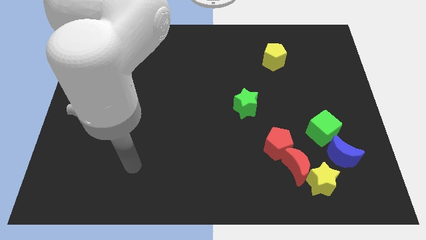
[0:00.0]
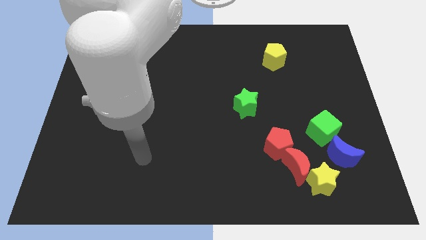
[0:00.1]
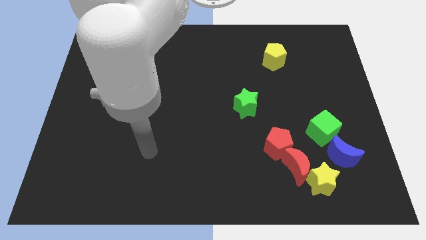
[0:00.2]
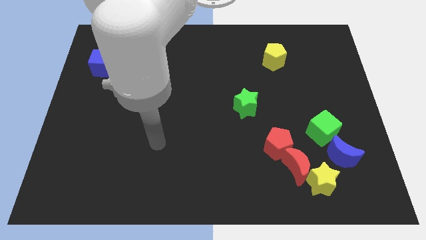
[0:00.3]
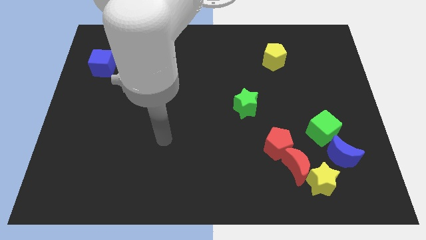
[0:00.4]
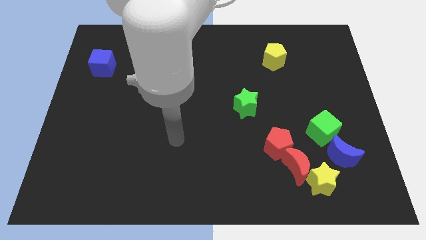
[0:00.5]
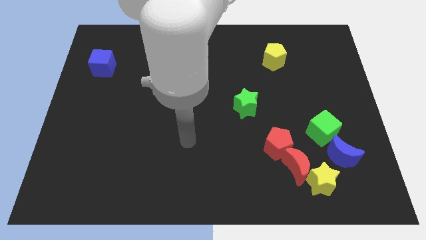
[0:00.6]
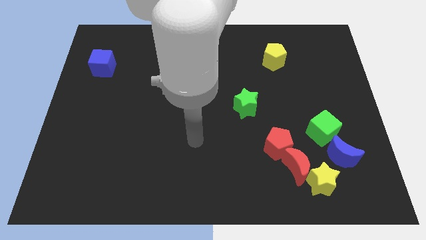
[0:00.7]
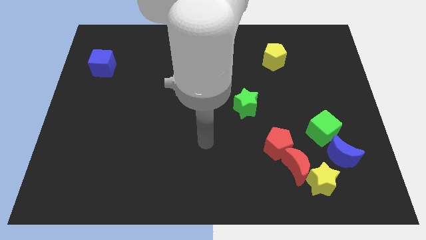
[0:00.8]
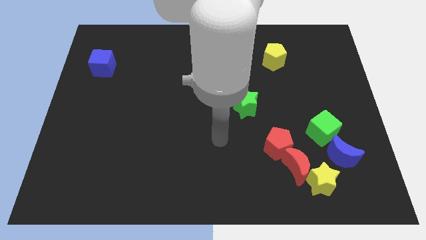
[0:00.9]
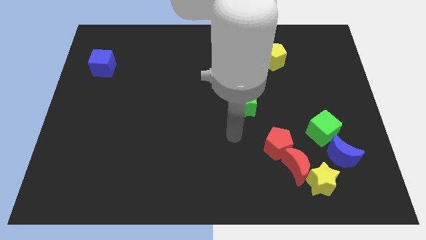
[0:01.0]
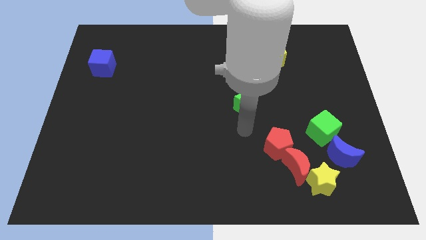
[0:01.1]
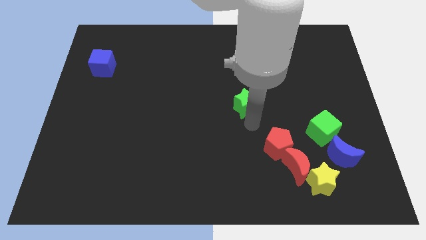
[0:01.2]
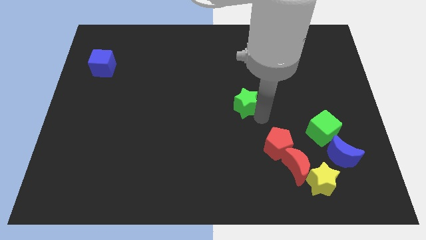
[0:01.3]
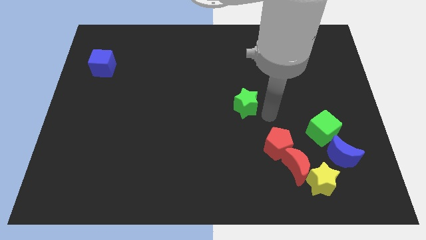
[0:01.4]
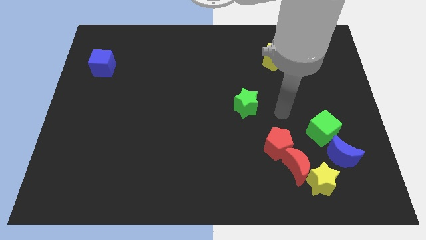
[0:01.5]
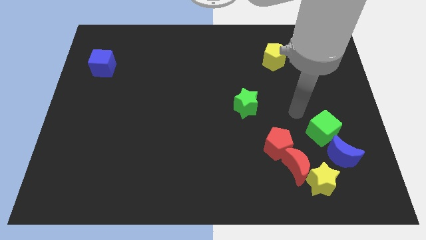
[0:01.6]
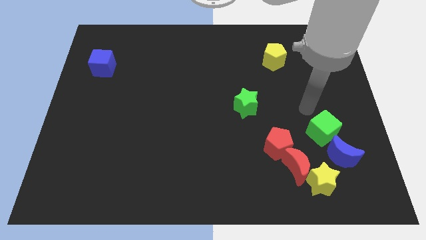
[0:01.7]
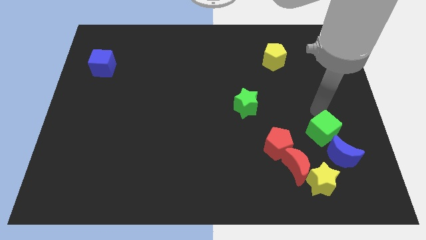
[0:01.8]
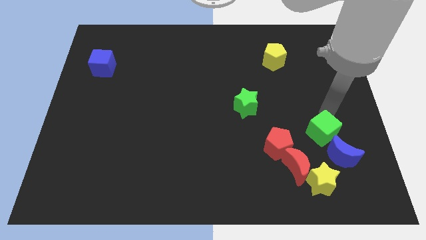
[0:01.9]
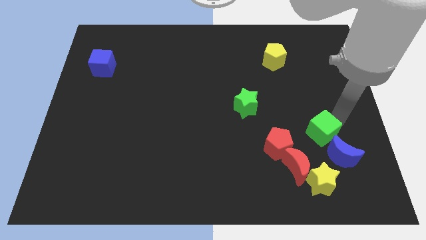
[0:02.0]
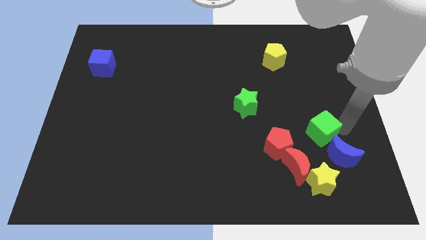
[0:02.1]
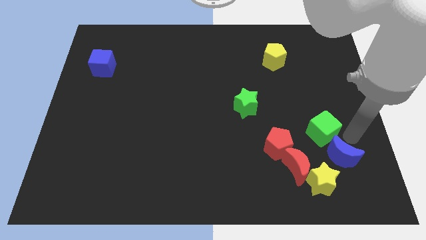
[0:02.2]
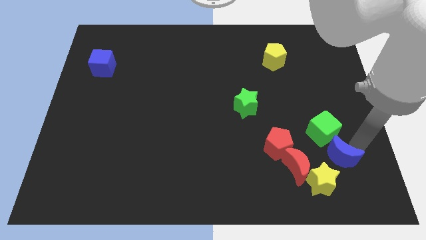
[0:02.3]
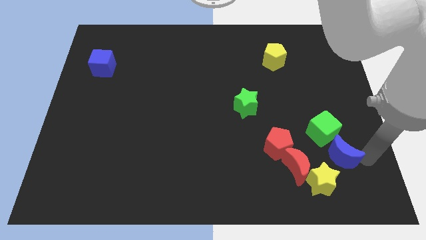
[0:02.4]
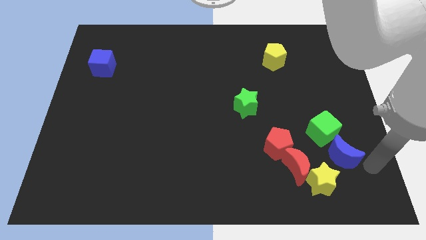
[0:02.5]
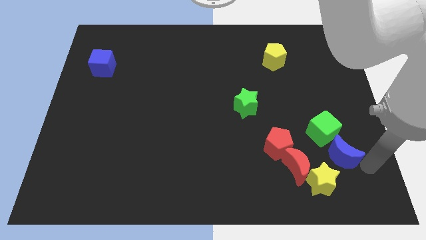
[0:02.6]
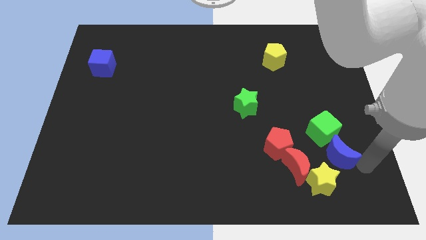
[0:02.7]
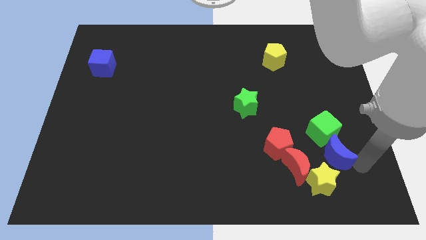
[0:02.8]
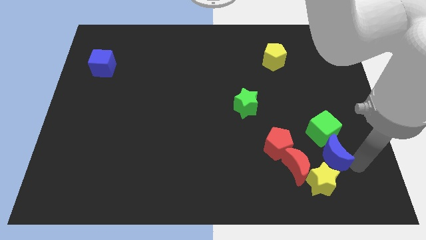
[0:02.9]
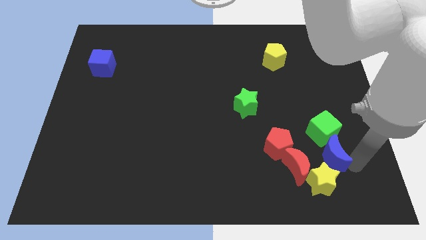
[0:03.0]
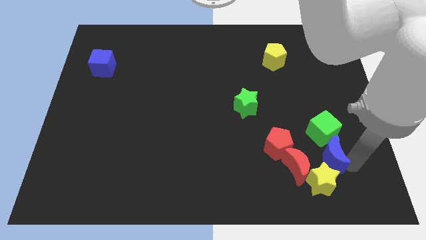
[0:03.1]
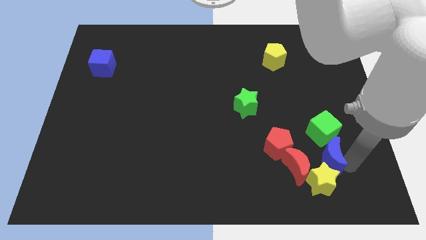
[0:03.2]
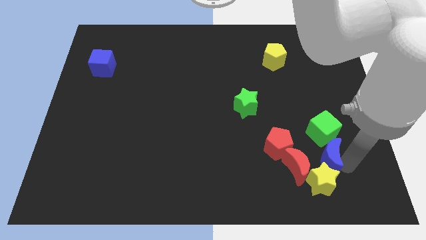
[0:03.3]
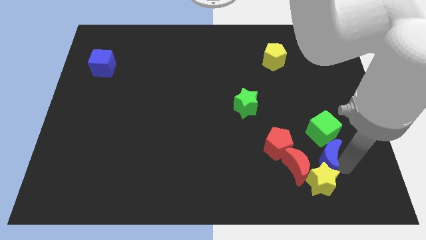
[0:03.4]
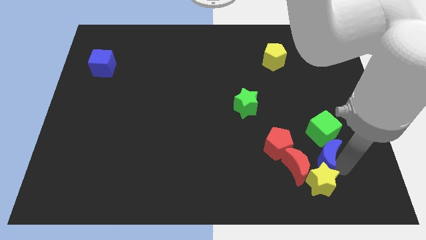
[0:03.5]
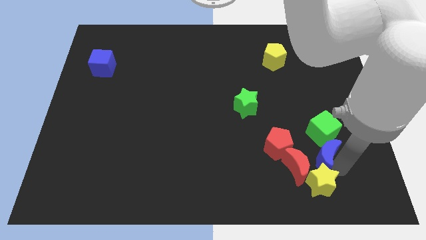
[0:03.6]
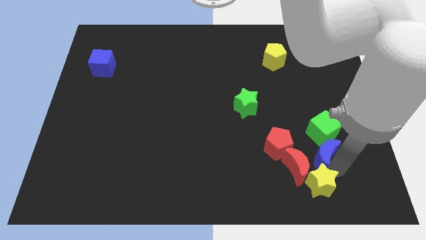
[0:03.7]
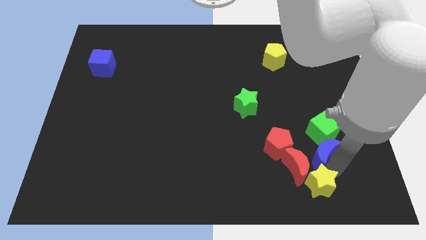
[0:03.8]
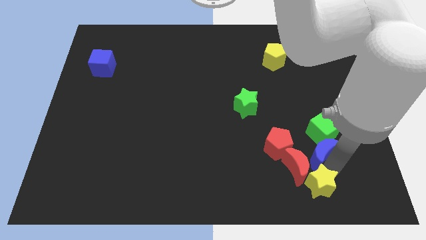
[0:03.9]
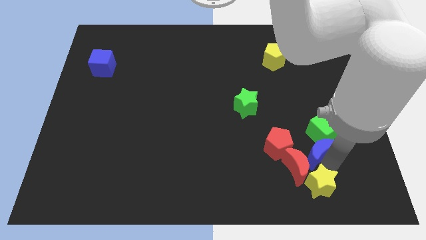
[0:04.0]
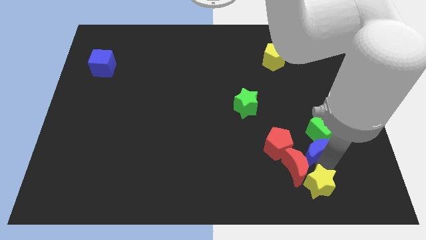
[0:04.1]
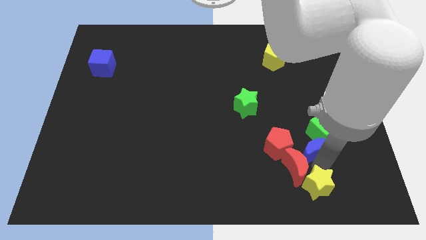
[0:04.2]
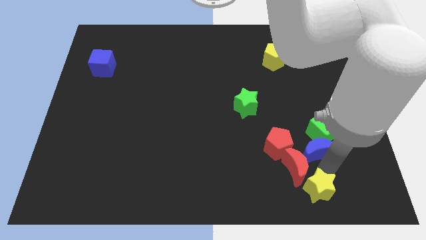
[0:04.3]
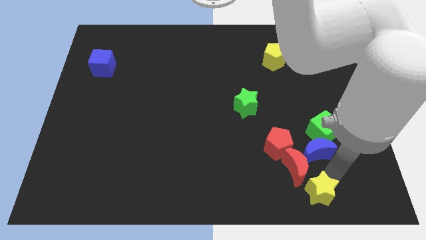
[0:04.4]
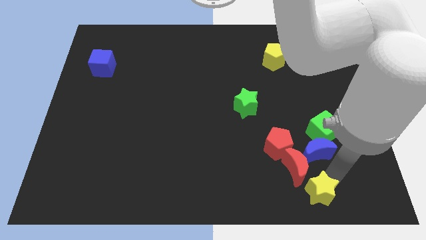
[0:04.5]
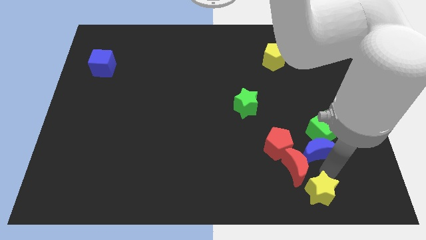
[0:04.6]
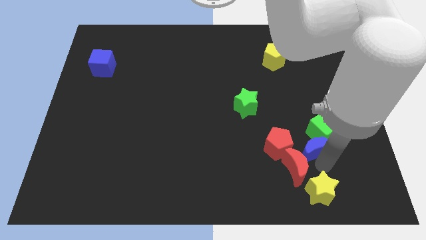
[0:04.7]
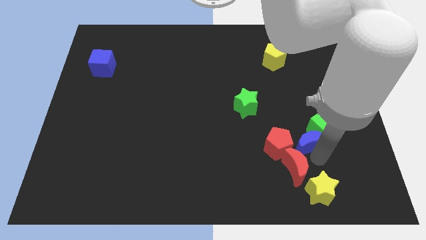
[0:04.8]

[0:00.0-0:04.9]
put the blue moon diagonally up and to the right of the red pentagon

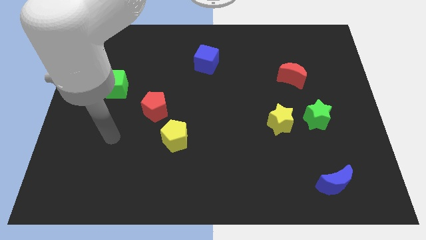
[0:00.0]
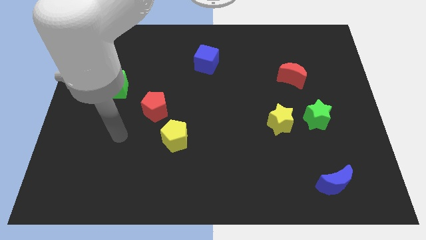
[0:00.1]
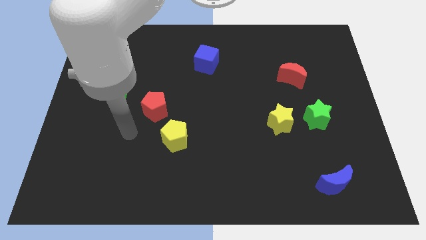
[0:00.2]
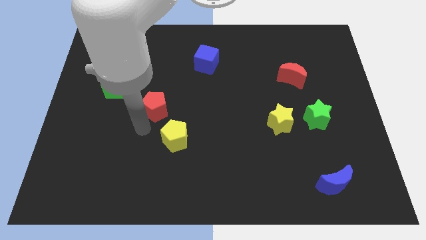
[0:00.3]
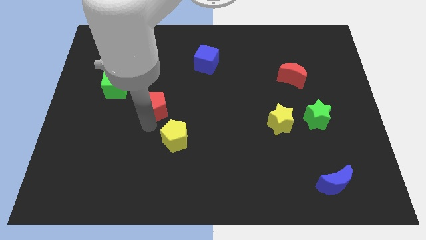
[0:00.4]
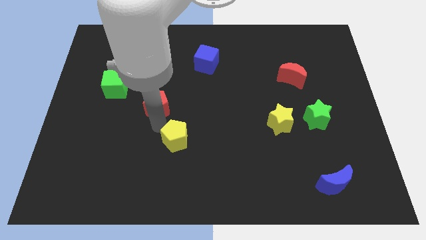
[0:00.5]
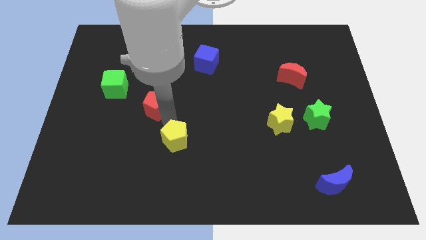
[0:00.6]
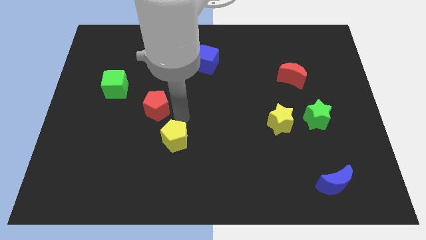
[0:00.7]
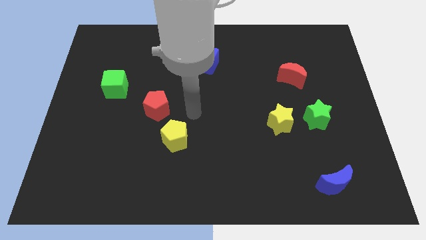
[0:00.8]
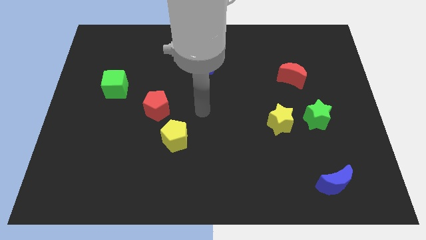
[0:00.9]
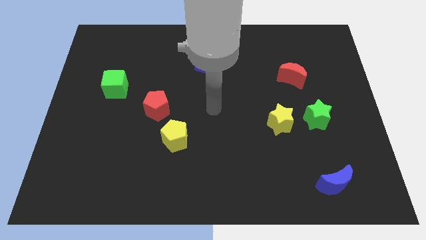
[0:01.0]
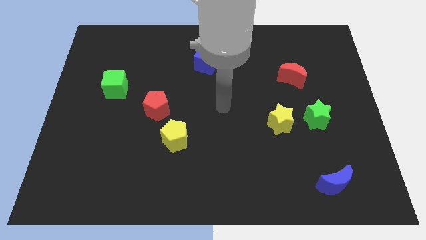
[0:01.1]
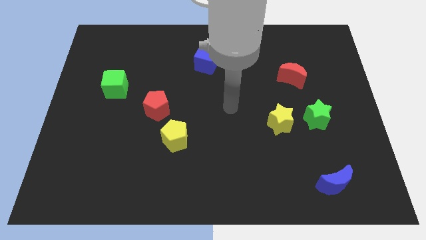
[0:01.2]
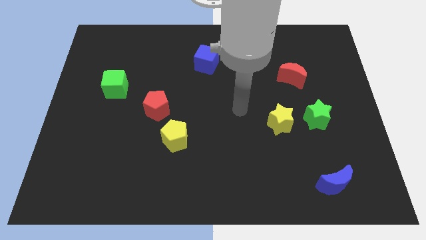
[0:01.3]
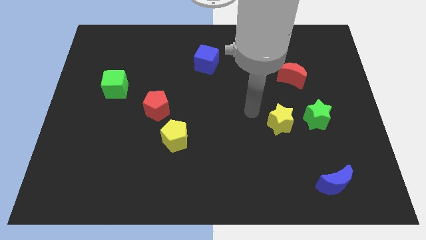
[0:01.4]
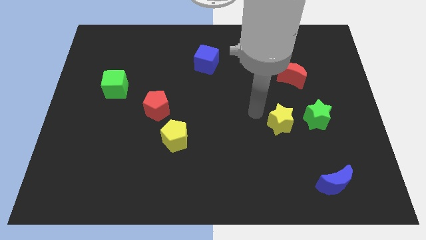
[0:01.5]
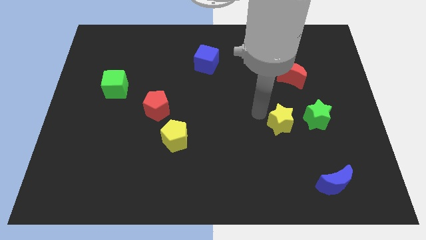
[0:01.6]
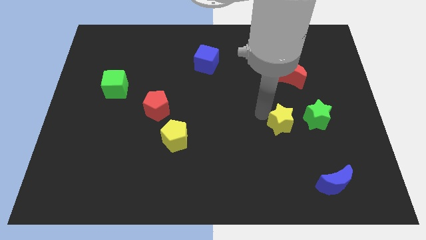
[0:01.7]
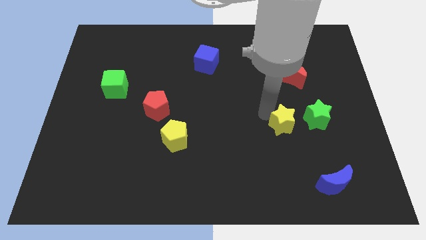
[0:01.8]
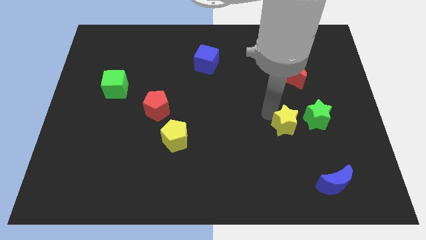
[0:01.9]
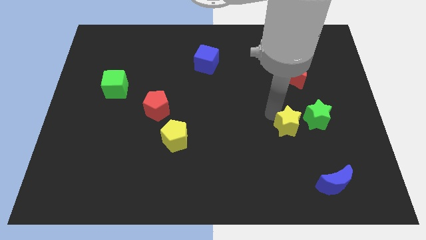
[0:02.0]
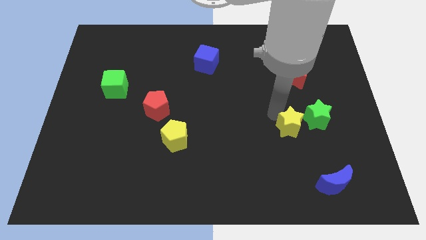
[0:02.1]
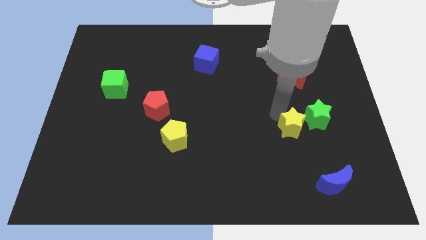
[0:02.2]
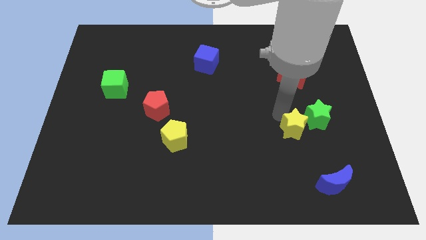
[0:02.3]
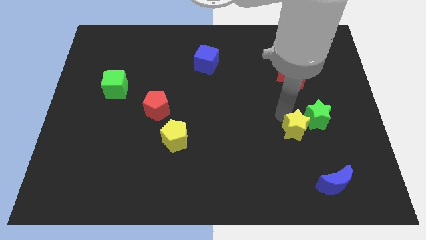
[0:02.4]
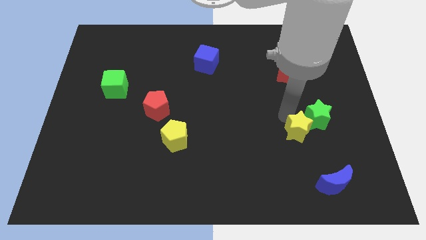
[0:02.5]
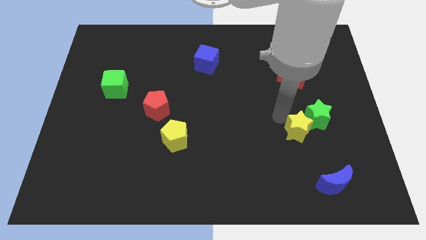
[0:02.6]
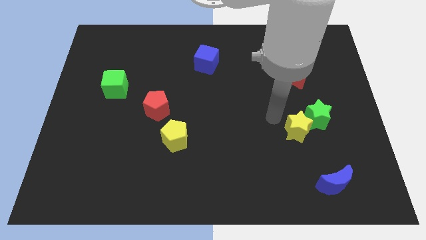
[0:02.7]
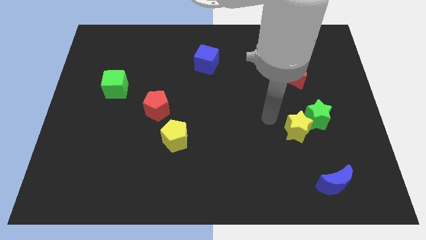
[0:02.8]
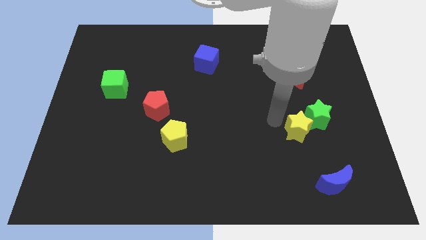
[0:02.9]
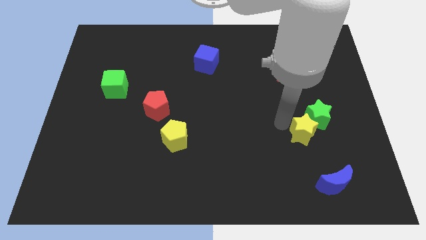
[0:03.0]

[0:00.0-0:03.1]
move the yellow star to the top of the blue moon
